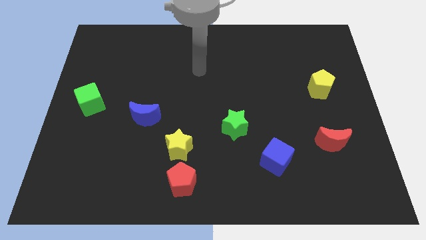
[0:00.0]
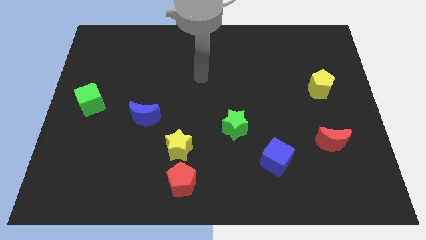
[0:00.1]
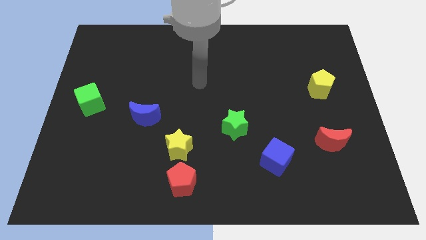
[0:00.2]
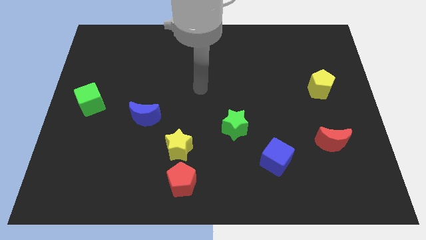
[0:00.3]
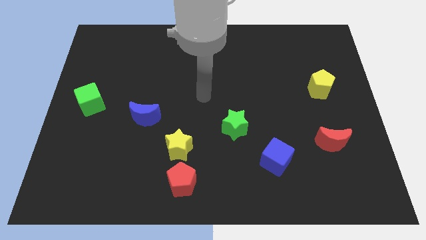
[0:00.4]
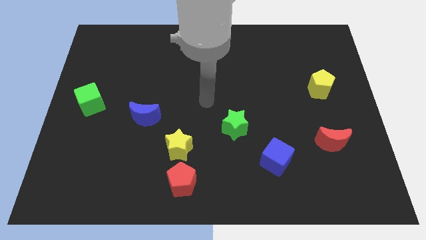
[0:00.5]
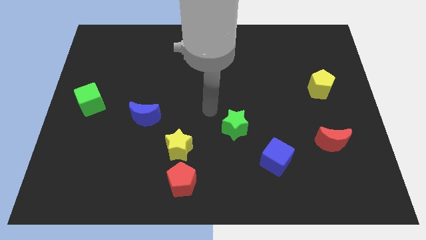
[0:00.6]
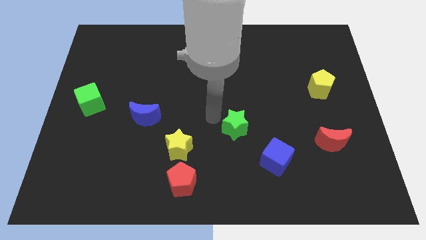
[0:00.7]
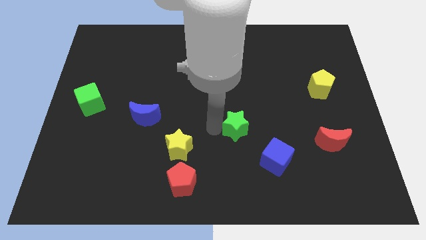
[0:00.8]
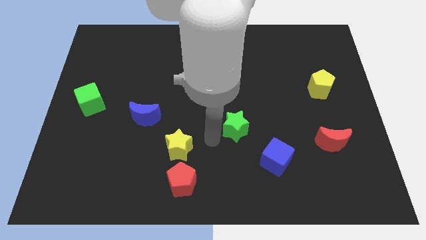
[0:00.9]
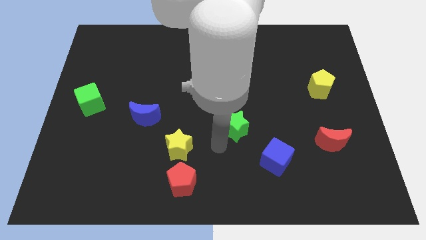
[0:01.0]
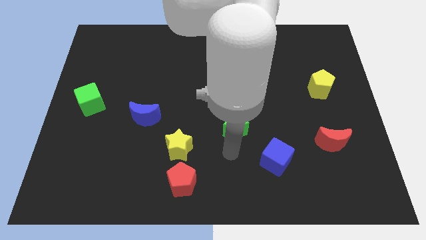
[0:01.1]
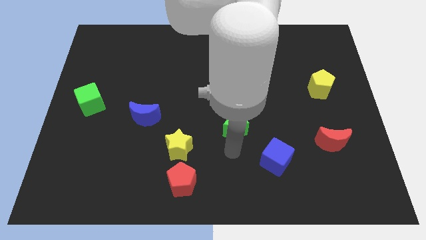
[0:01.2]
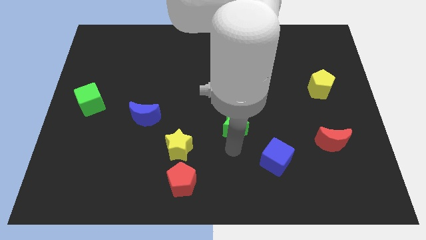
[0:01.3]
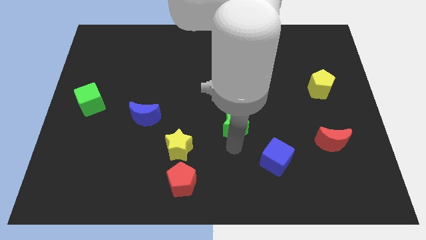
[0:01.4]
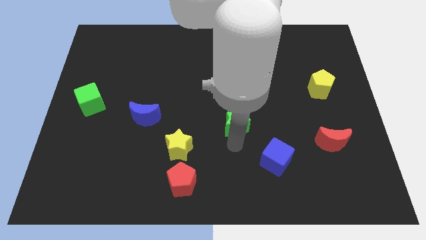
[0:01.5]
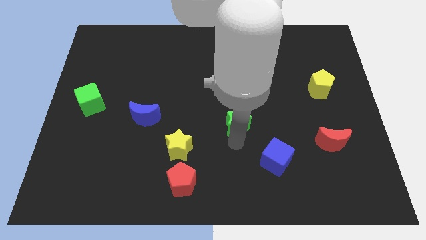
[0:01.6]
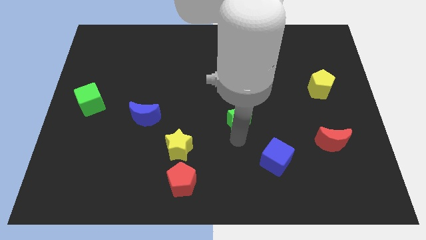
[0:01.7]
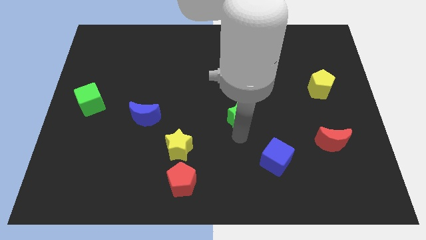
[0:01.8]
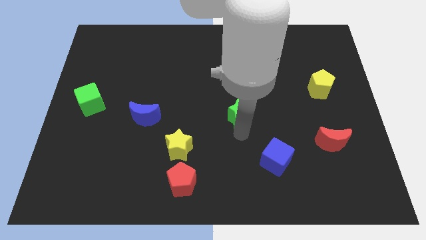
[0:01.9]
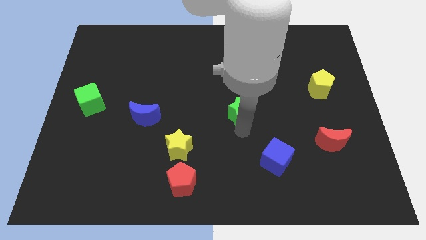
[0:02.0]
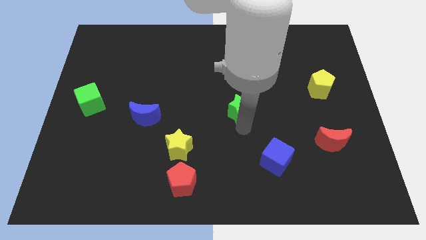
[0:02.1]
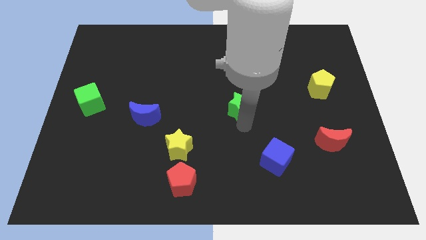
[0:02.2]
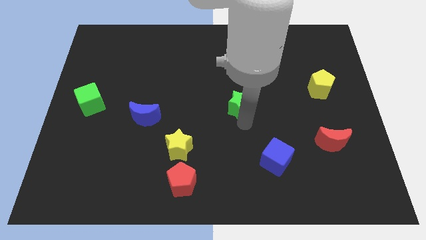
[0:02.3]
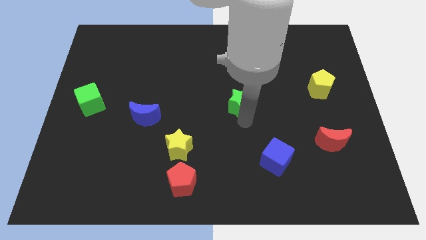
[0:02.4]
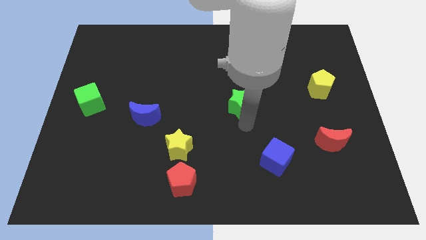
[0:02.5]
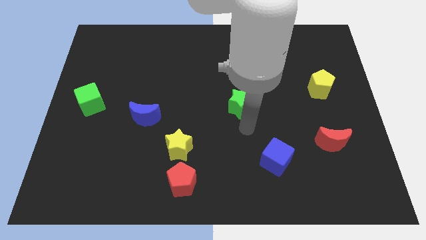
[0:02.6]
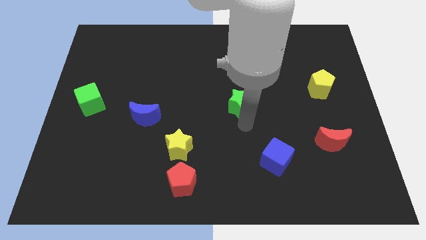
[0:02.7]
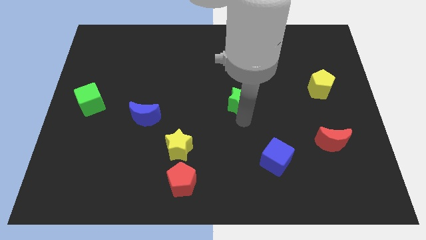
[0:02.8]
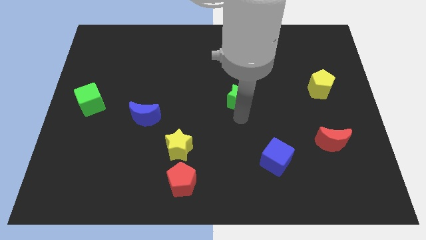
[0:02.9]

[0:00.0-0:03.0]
slightly move the green star upwards

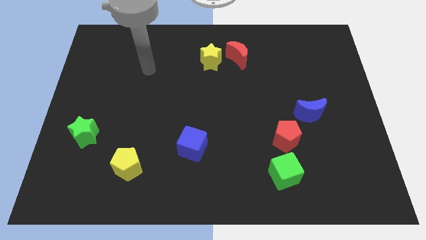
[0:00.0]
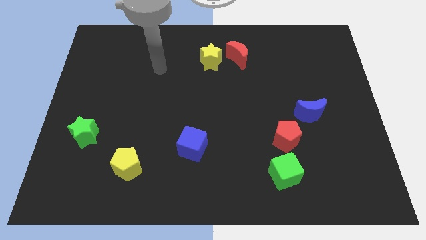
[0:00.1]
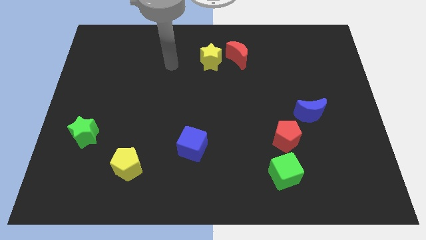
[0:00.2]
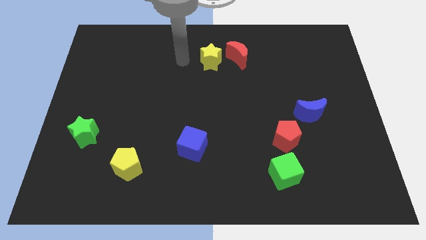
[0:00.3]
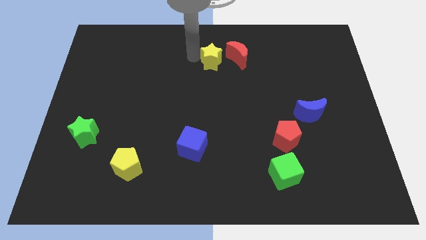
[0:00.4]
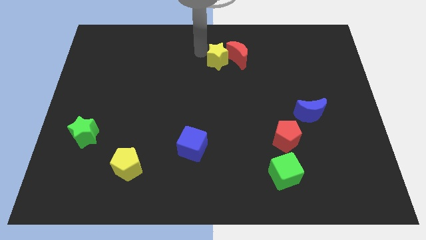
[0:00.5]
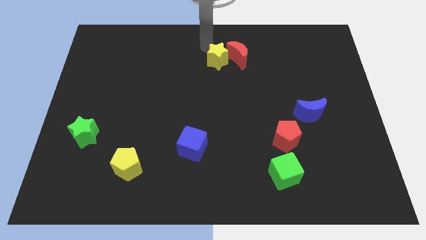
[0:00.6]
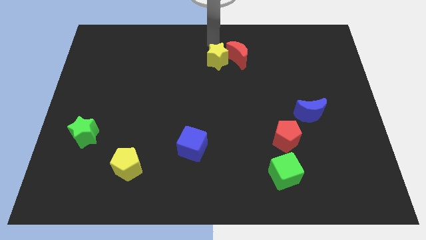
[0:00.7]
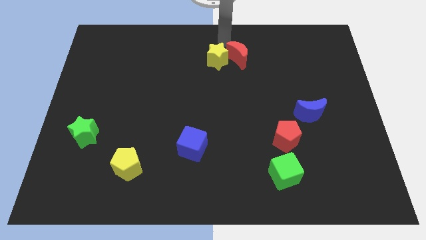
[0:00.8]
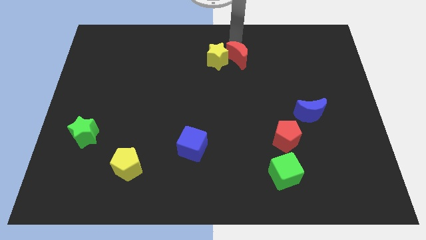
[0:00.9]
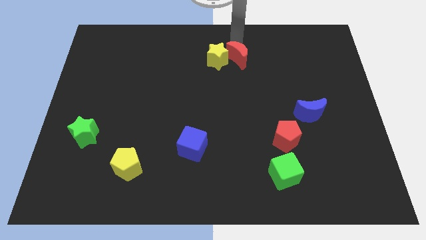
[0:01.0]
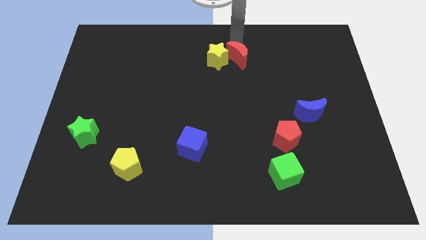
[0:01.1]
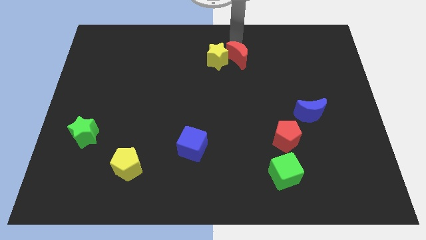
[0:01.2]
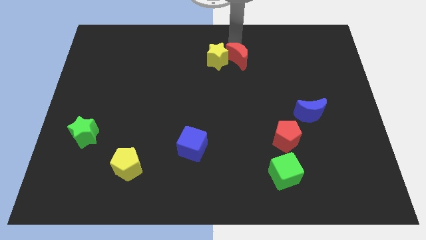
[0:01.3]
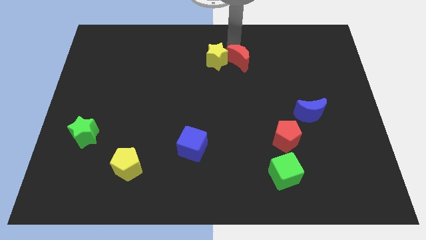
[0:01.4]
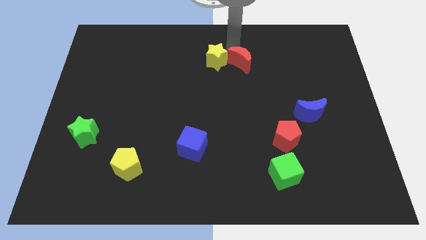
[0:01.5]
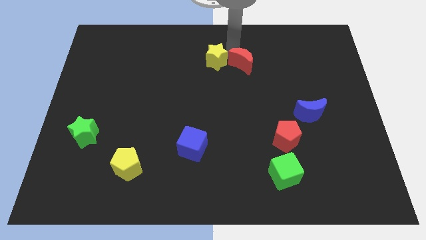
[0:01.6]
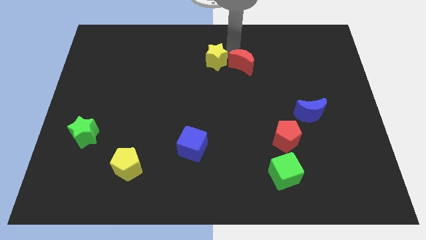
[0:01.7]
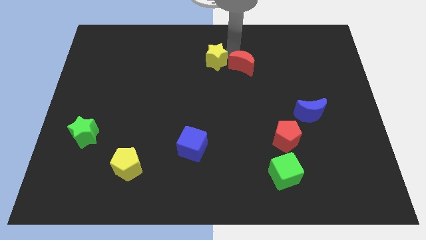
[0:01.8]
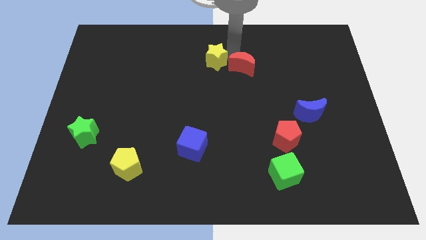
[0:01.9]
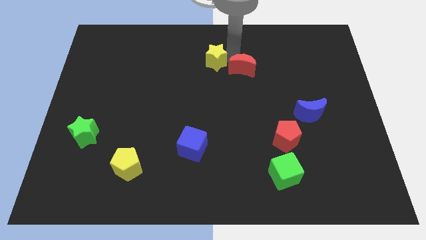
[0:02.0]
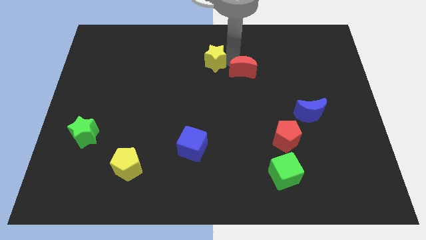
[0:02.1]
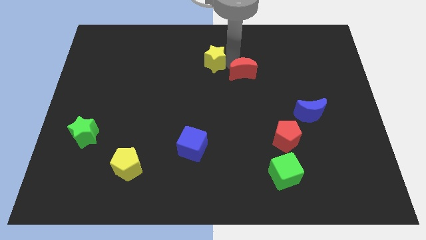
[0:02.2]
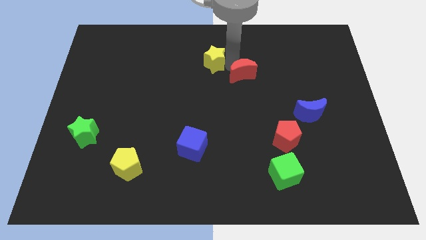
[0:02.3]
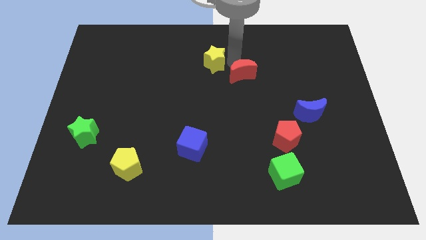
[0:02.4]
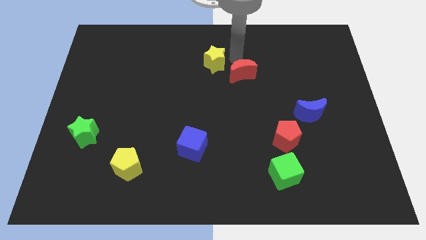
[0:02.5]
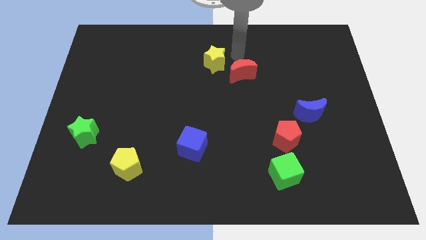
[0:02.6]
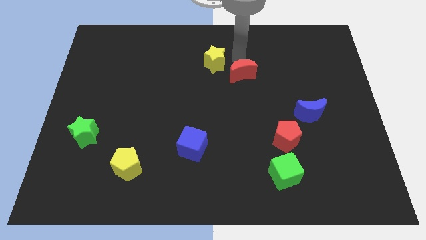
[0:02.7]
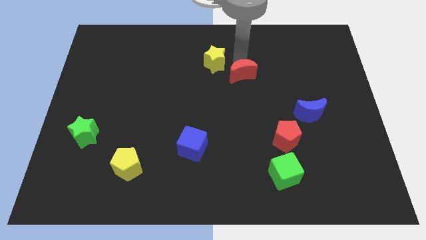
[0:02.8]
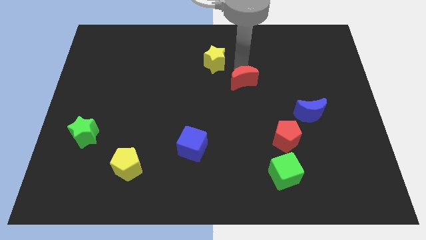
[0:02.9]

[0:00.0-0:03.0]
push the red moon down slightly

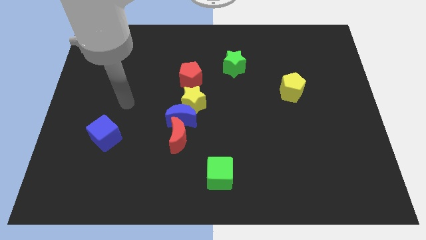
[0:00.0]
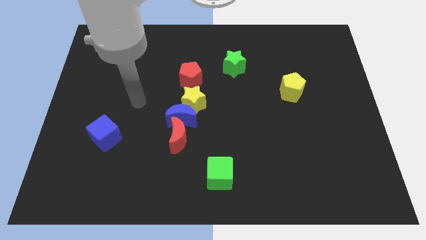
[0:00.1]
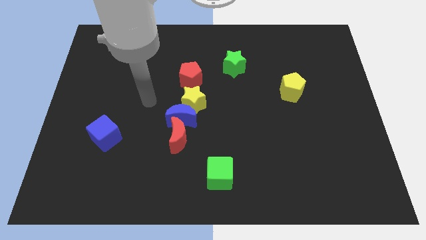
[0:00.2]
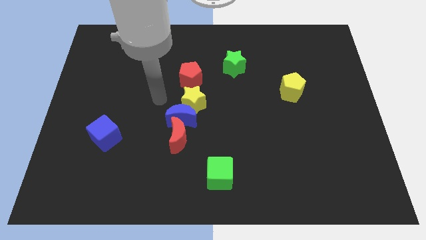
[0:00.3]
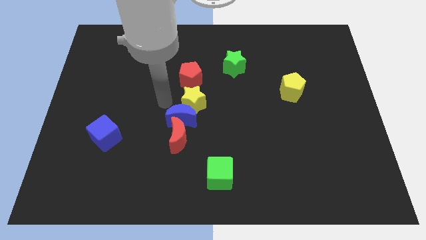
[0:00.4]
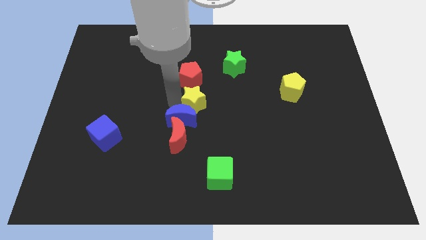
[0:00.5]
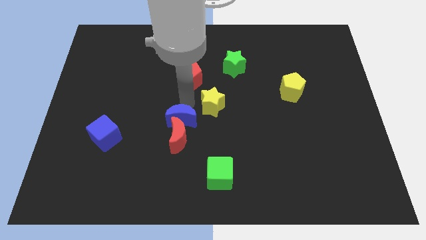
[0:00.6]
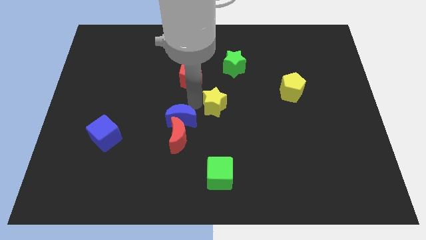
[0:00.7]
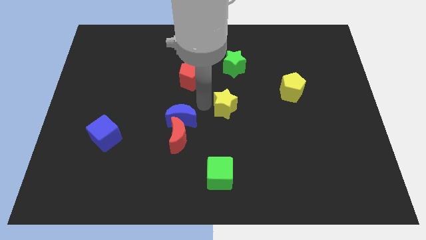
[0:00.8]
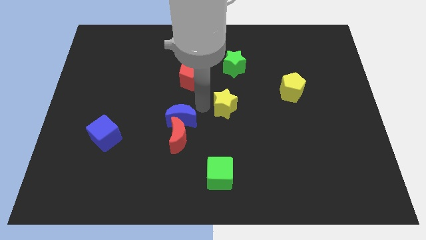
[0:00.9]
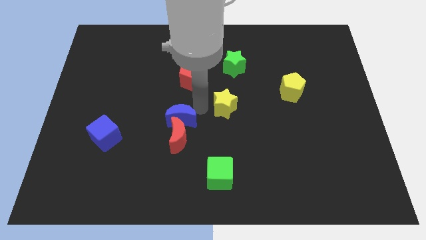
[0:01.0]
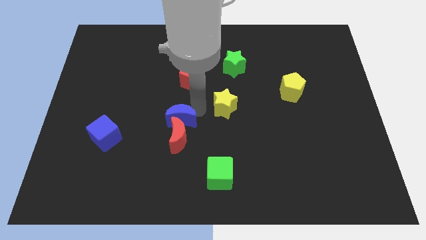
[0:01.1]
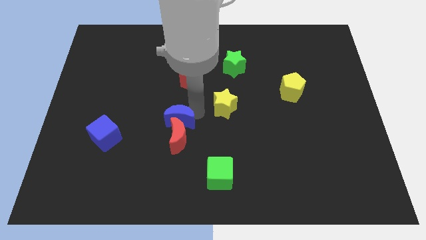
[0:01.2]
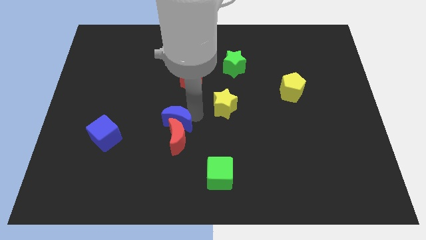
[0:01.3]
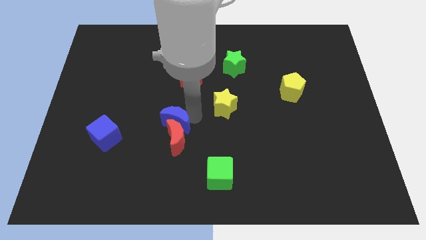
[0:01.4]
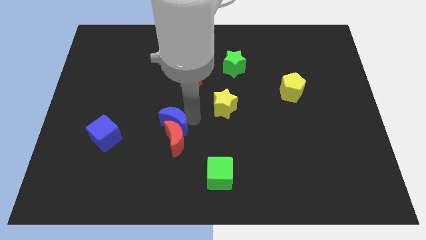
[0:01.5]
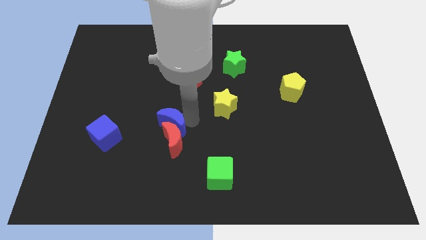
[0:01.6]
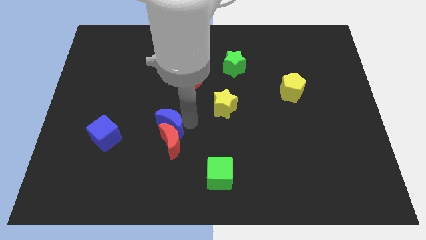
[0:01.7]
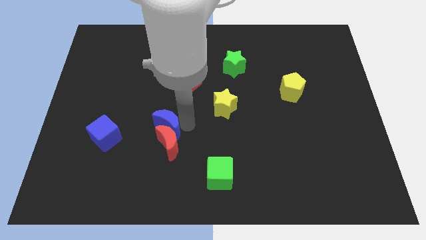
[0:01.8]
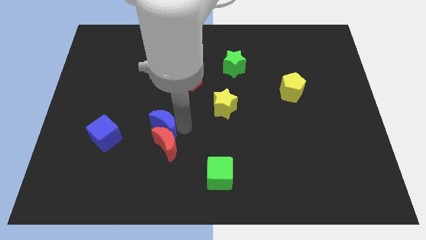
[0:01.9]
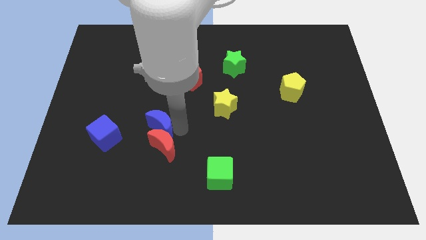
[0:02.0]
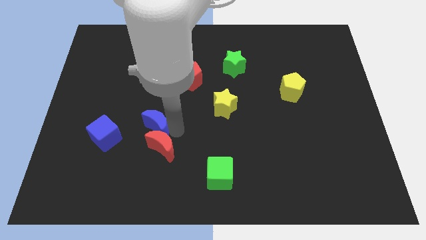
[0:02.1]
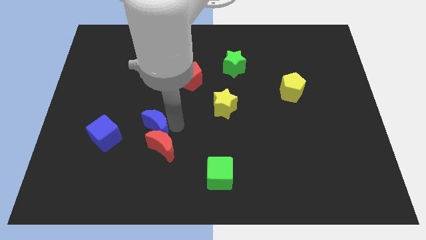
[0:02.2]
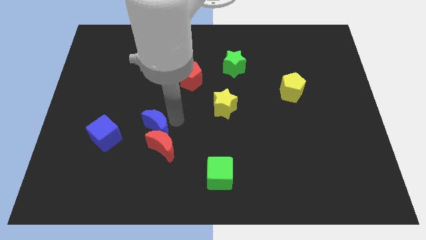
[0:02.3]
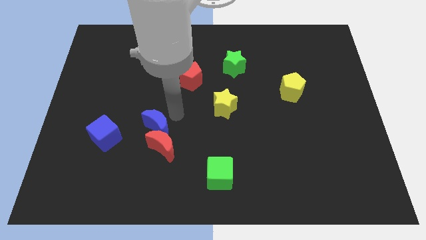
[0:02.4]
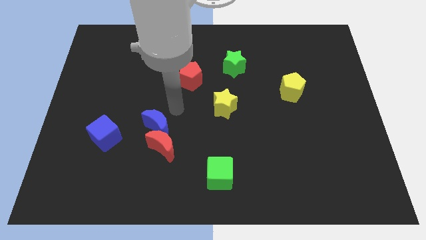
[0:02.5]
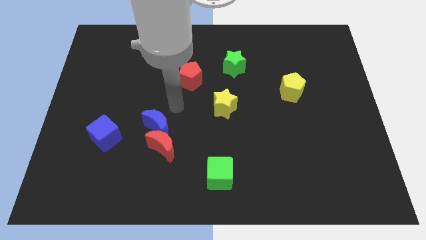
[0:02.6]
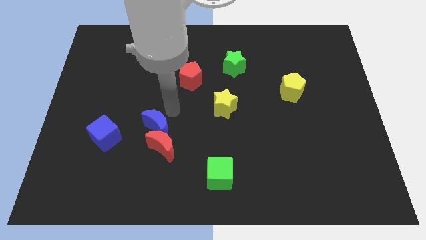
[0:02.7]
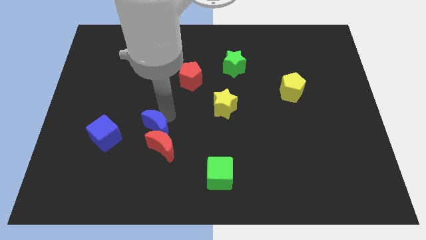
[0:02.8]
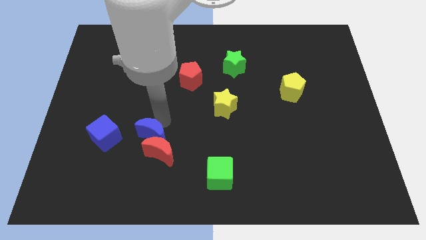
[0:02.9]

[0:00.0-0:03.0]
move the blue moon a little down and then to the left
